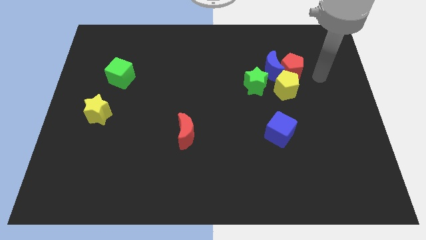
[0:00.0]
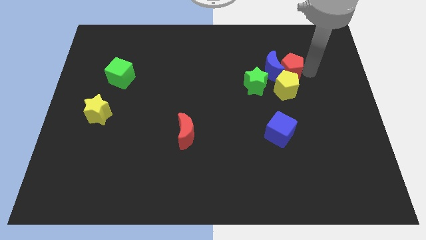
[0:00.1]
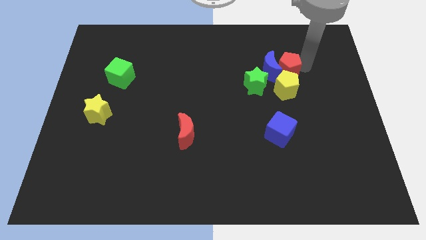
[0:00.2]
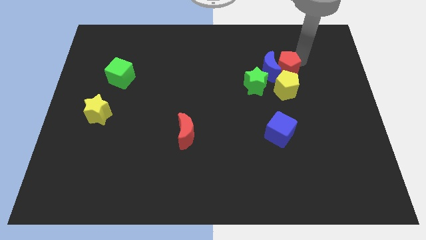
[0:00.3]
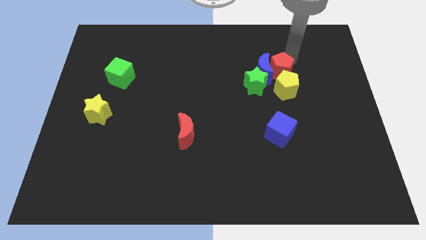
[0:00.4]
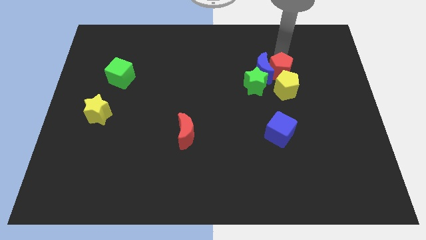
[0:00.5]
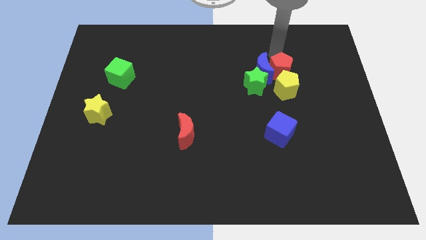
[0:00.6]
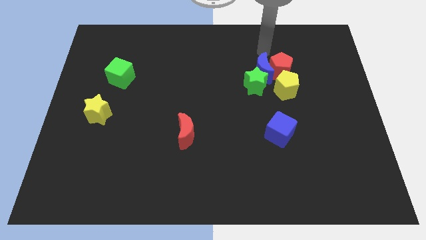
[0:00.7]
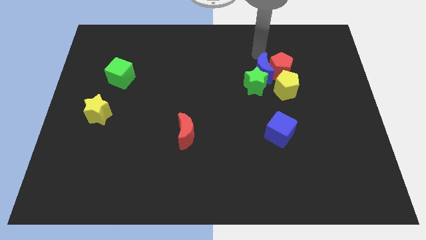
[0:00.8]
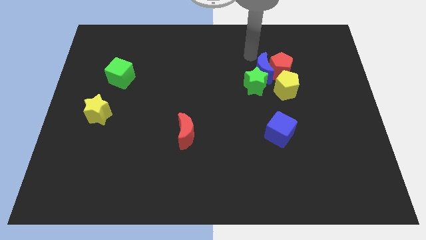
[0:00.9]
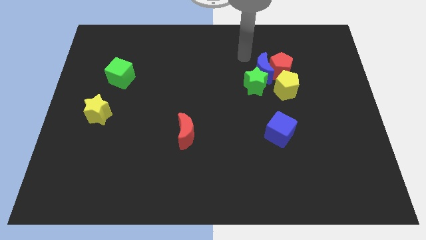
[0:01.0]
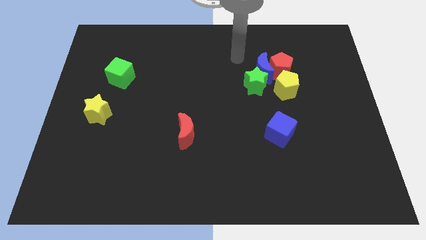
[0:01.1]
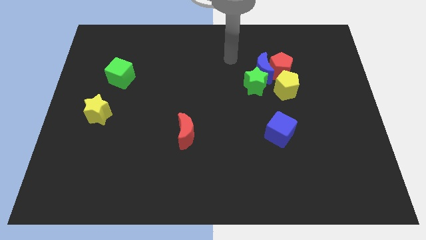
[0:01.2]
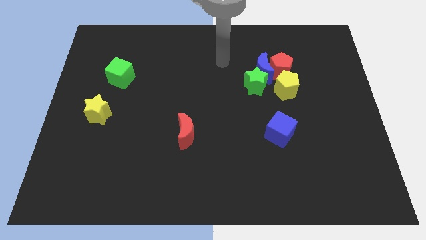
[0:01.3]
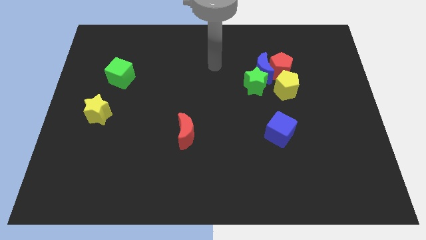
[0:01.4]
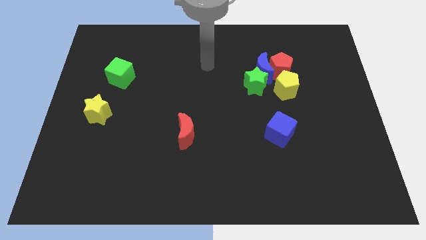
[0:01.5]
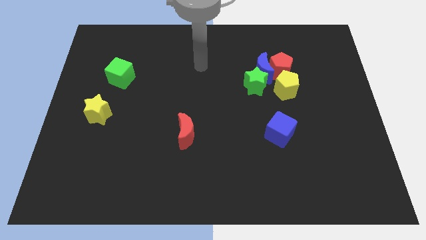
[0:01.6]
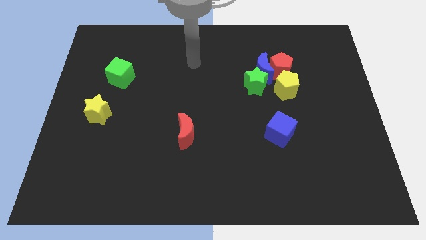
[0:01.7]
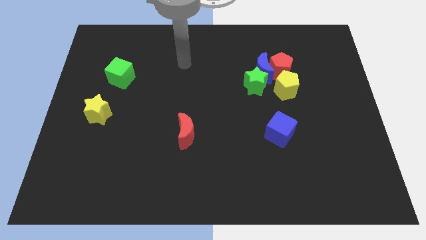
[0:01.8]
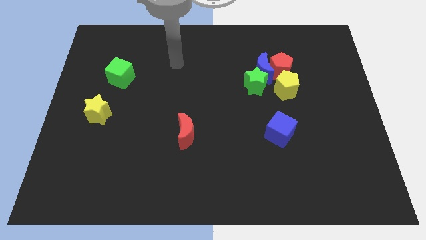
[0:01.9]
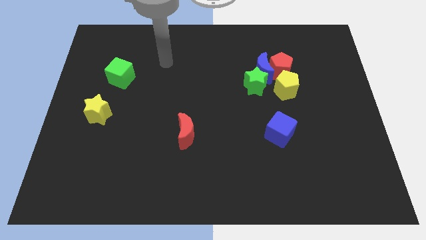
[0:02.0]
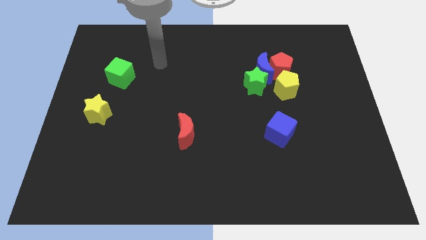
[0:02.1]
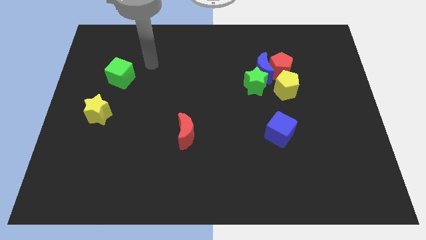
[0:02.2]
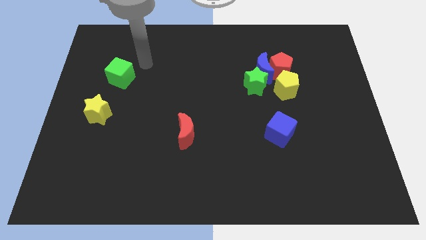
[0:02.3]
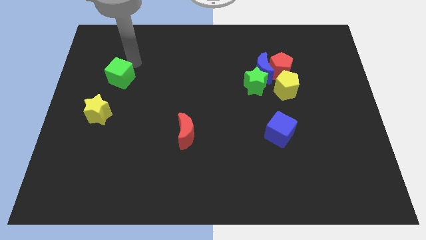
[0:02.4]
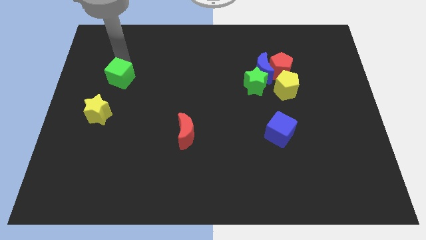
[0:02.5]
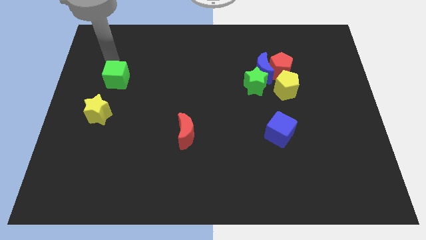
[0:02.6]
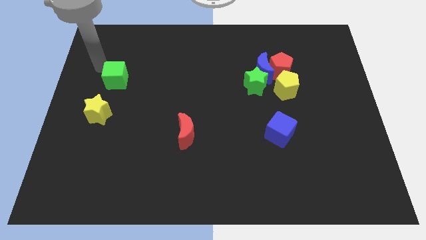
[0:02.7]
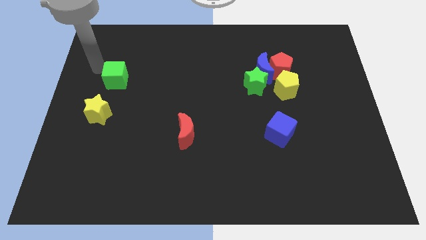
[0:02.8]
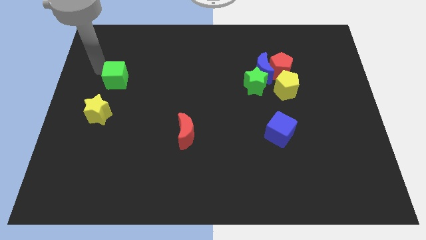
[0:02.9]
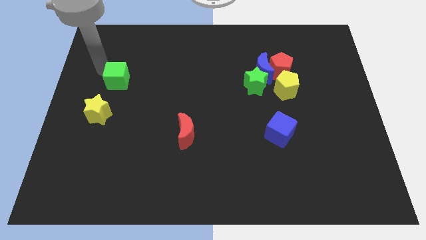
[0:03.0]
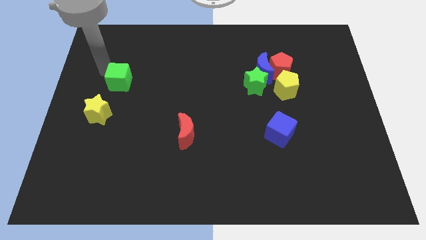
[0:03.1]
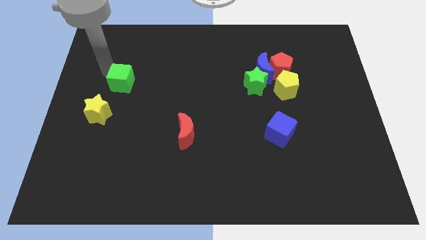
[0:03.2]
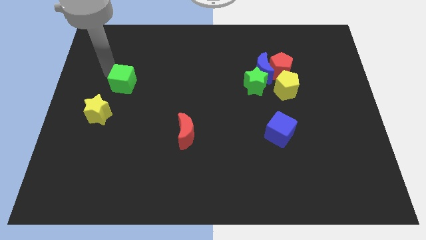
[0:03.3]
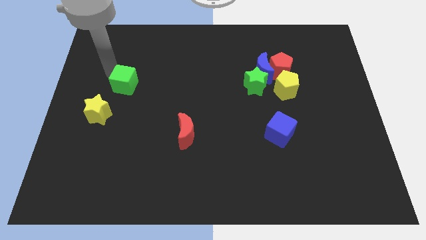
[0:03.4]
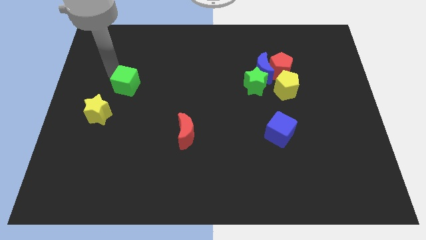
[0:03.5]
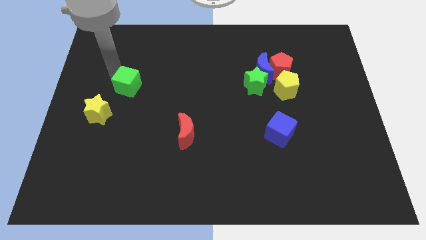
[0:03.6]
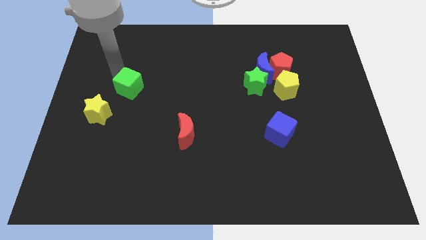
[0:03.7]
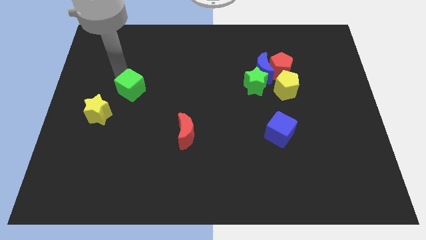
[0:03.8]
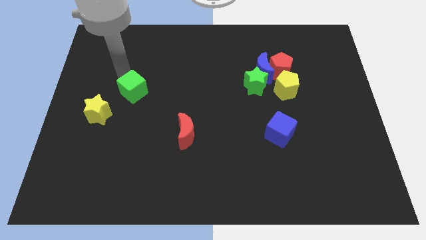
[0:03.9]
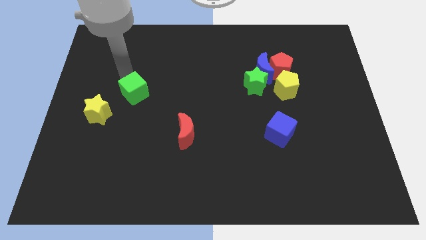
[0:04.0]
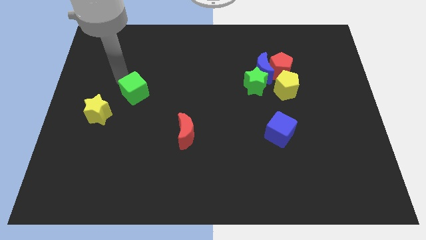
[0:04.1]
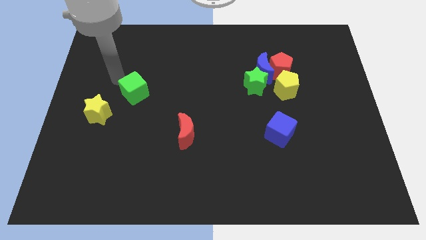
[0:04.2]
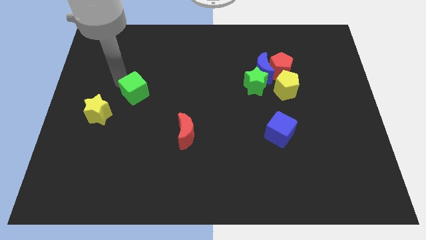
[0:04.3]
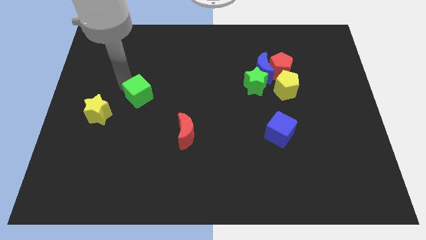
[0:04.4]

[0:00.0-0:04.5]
slightly push the green cube diagonally downwards and to the right

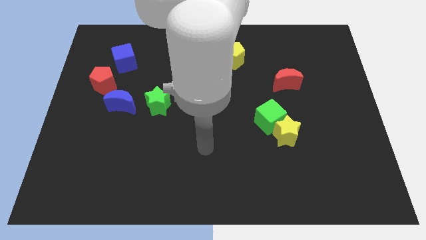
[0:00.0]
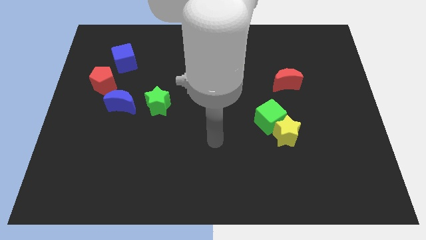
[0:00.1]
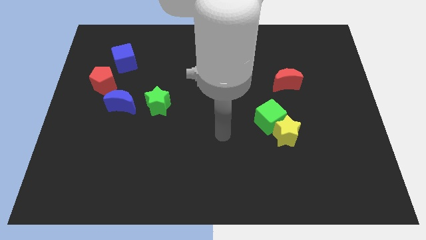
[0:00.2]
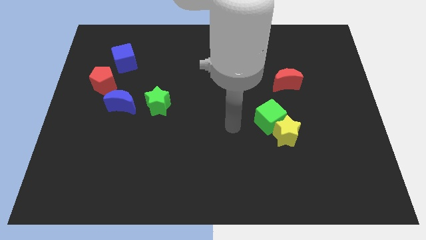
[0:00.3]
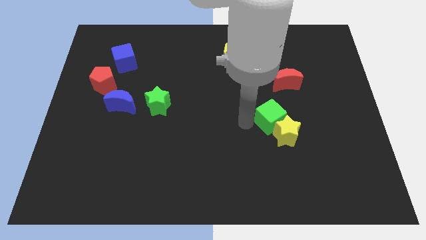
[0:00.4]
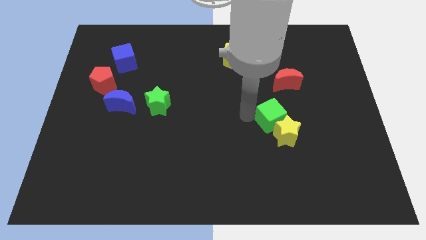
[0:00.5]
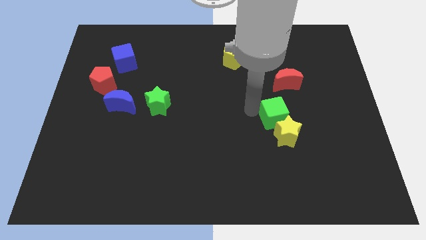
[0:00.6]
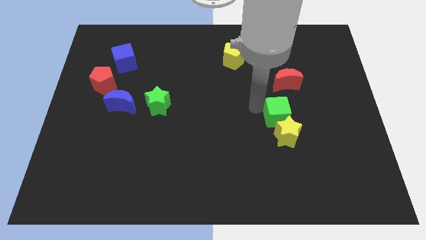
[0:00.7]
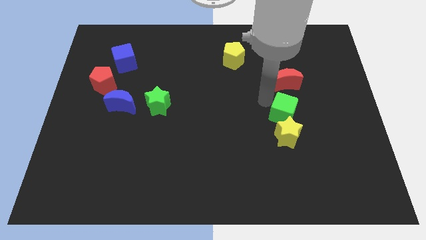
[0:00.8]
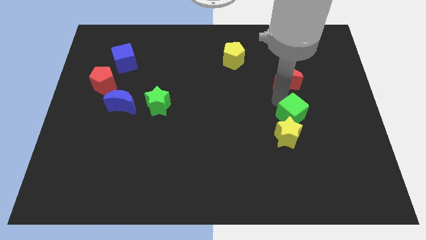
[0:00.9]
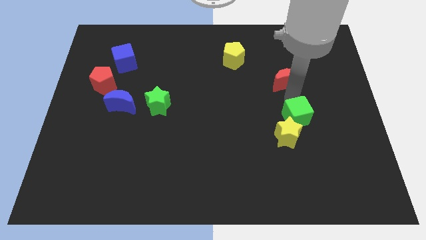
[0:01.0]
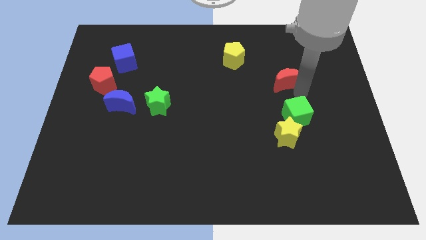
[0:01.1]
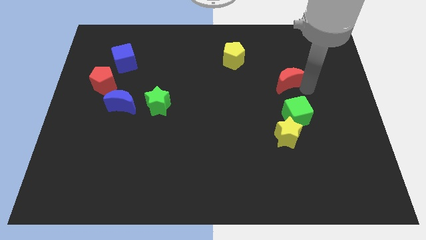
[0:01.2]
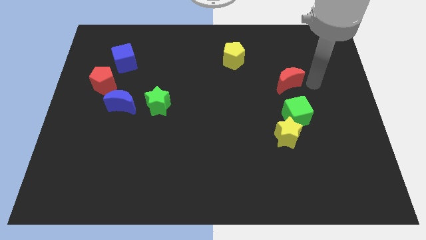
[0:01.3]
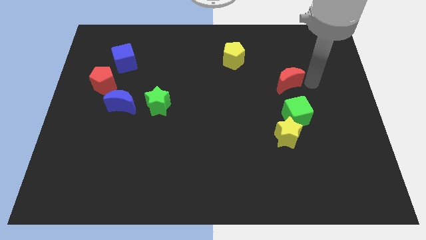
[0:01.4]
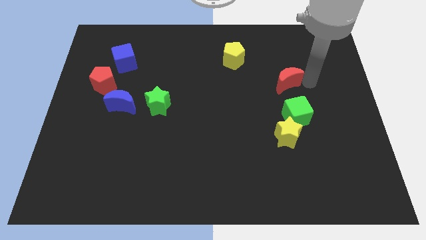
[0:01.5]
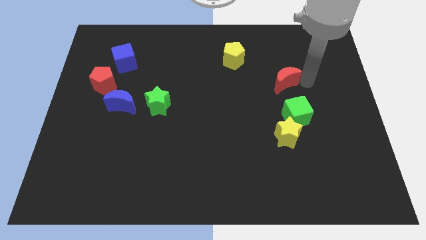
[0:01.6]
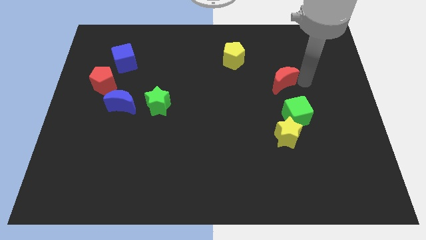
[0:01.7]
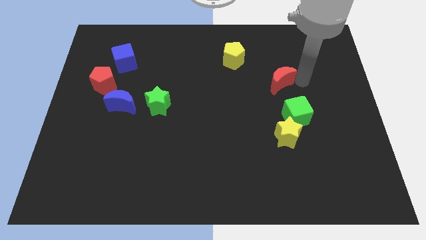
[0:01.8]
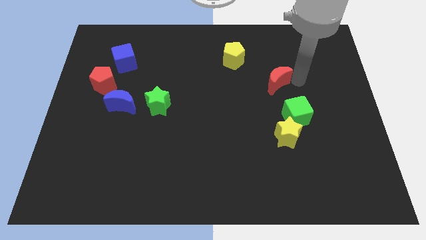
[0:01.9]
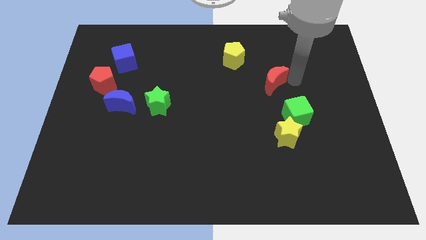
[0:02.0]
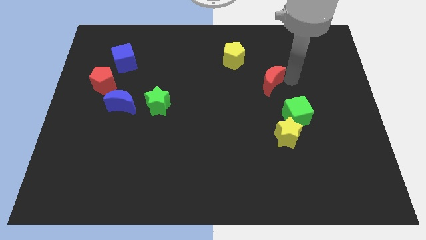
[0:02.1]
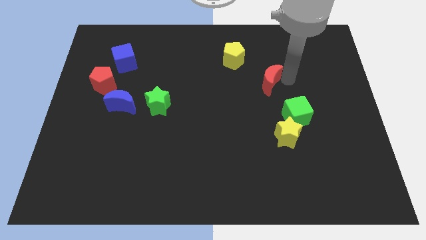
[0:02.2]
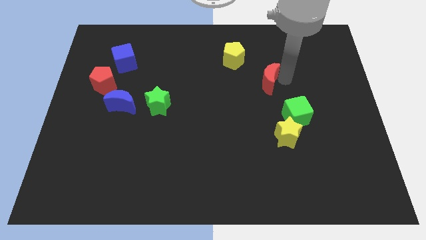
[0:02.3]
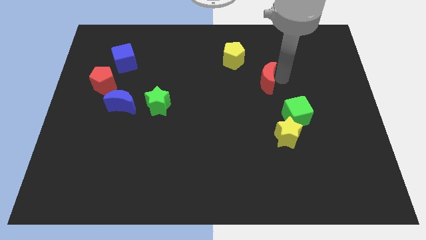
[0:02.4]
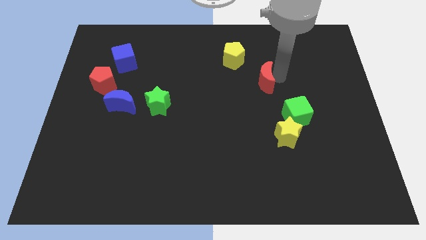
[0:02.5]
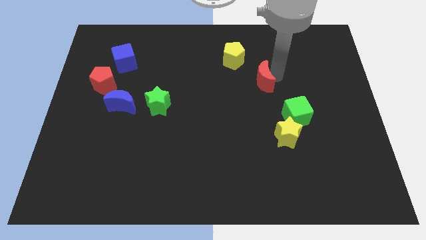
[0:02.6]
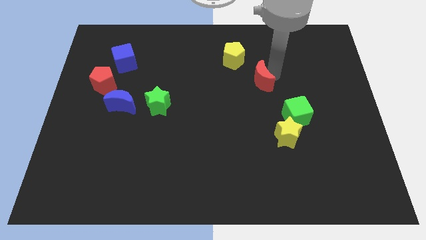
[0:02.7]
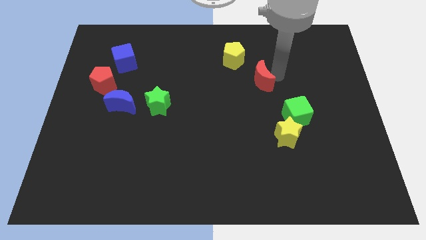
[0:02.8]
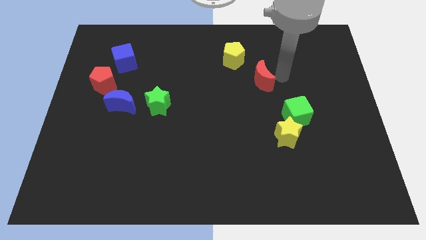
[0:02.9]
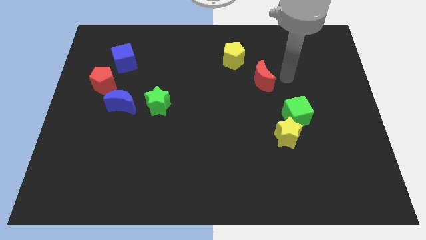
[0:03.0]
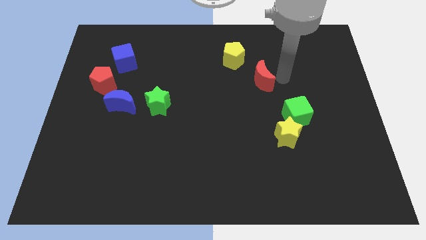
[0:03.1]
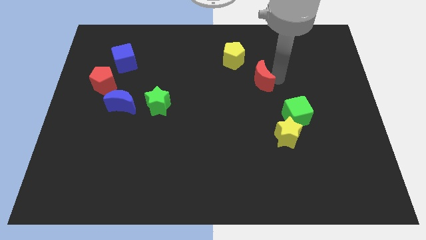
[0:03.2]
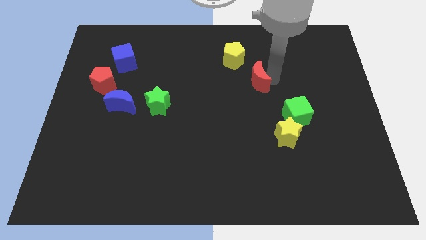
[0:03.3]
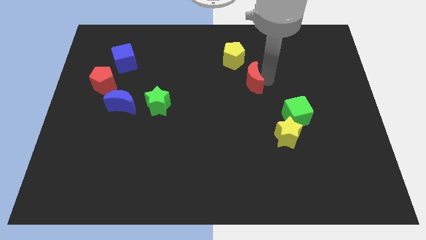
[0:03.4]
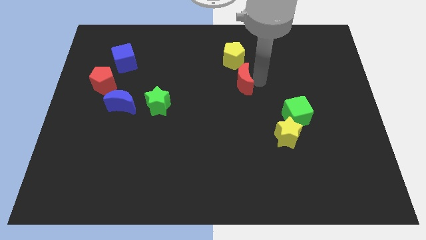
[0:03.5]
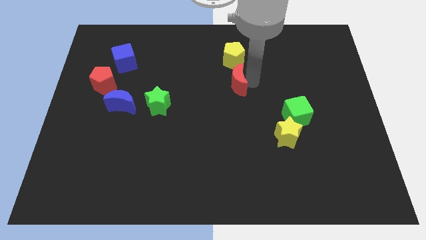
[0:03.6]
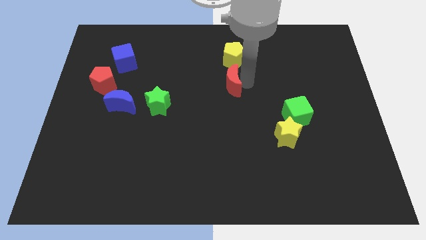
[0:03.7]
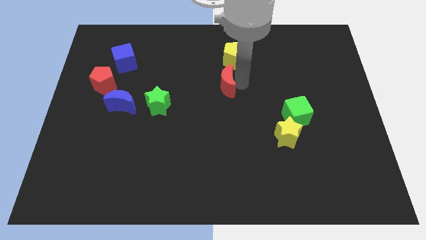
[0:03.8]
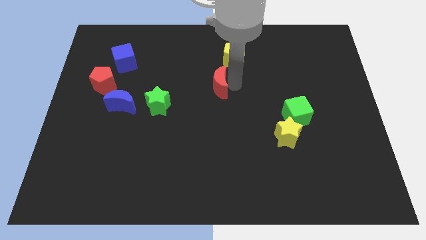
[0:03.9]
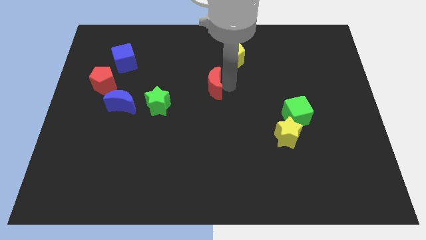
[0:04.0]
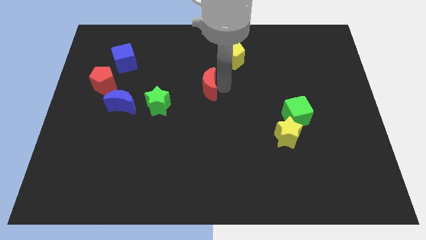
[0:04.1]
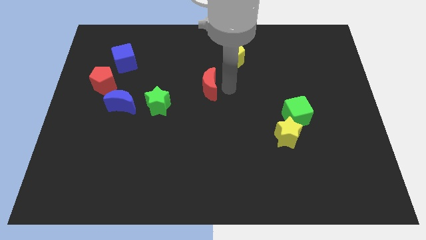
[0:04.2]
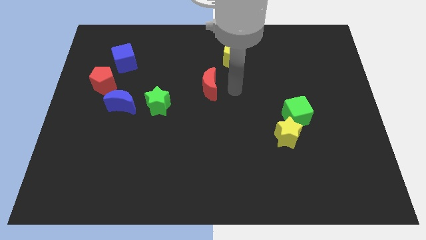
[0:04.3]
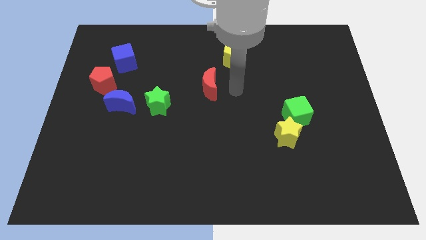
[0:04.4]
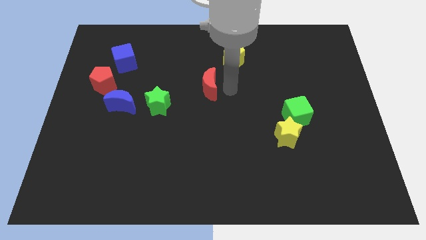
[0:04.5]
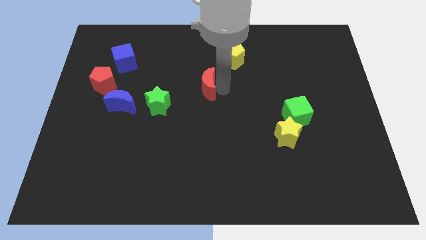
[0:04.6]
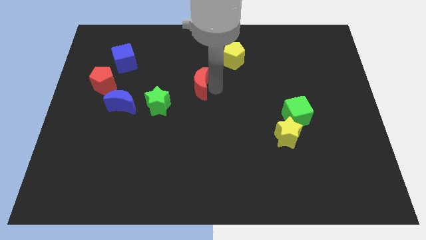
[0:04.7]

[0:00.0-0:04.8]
slide the red moon to the left
